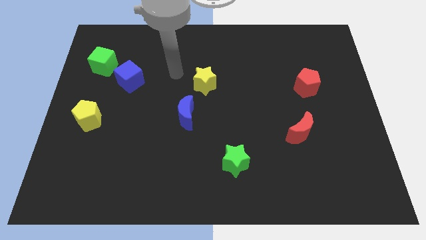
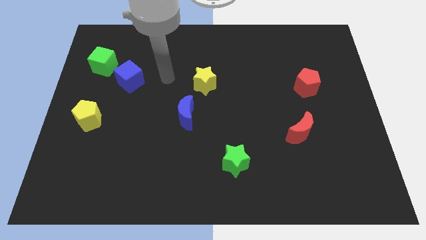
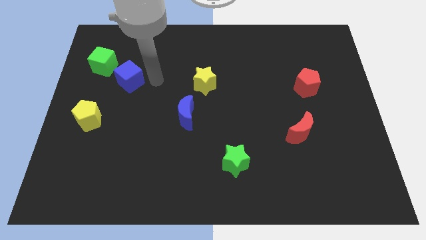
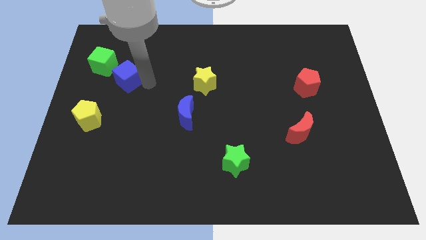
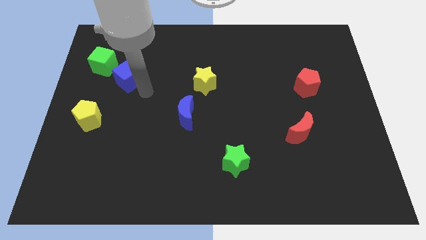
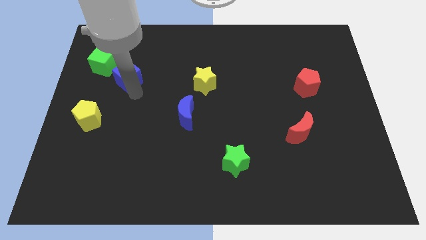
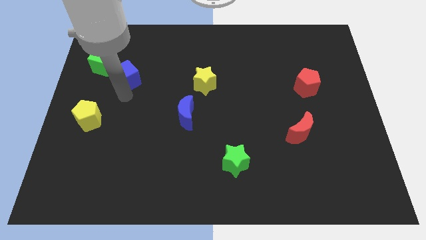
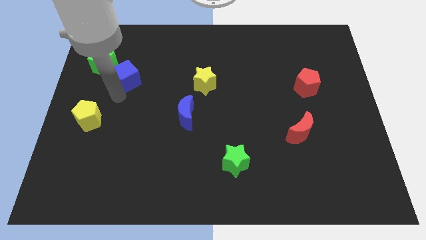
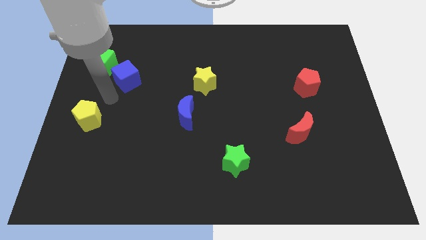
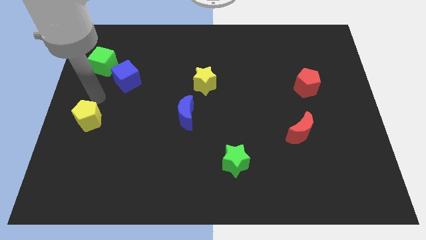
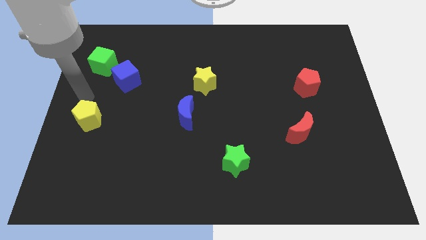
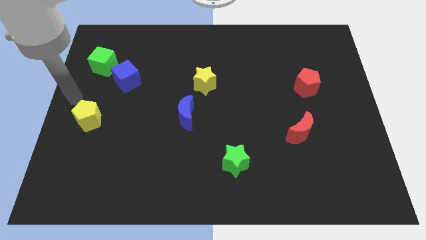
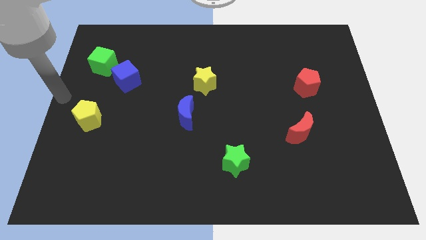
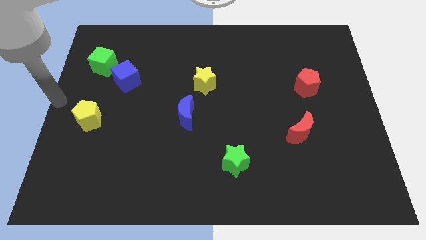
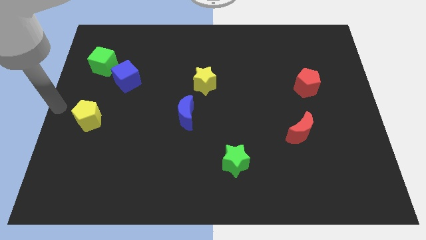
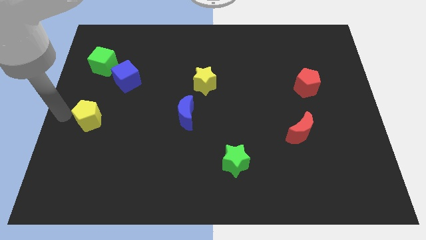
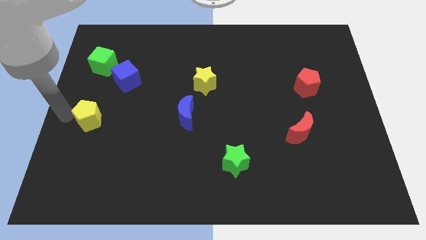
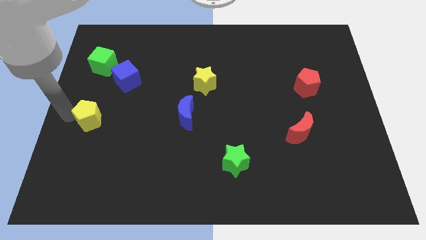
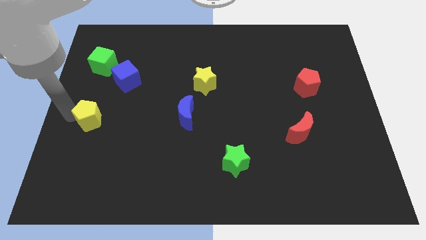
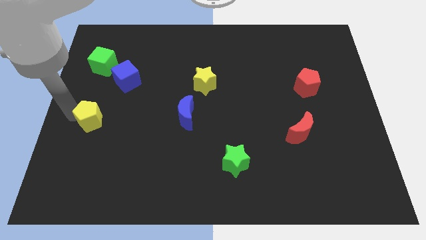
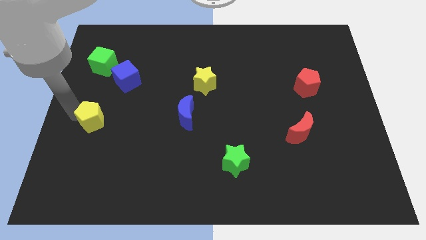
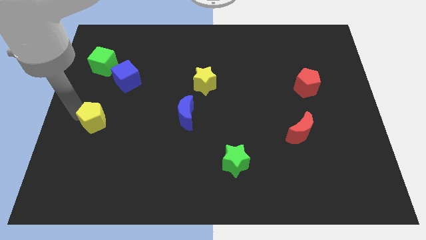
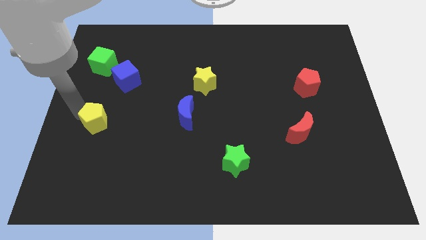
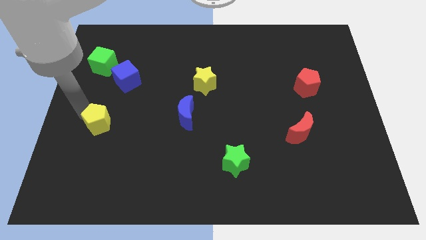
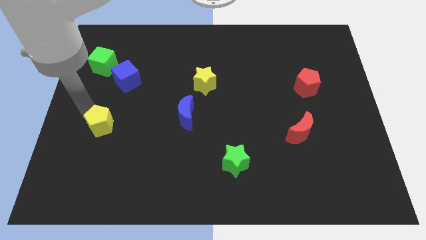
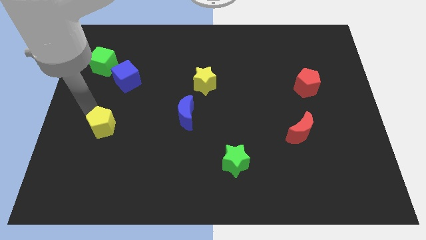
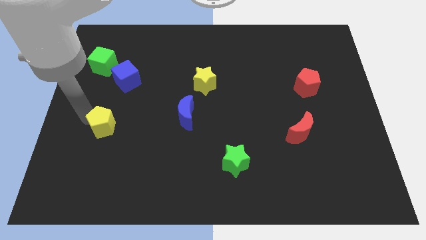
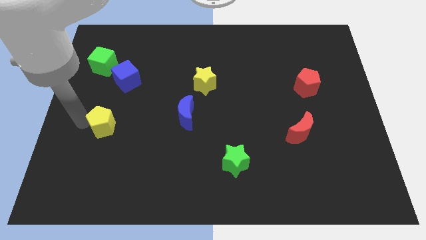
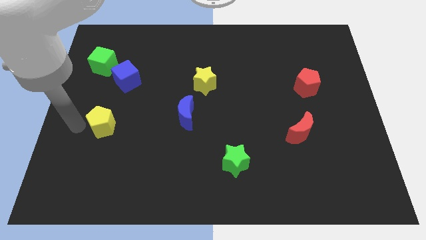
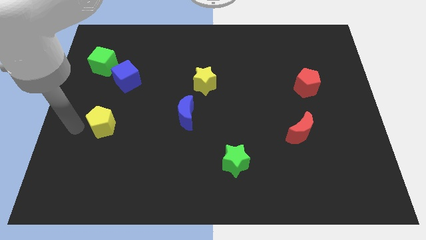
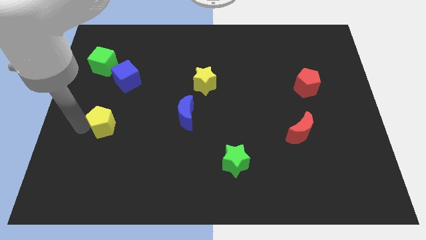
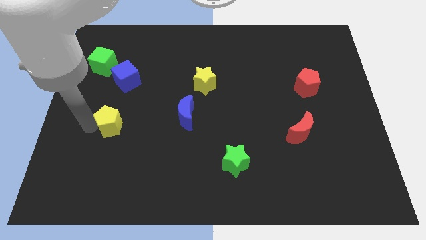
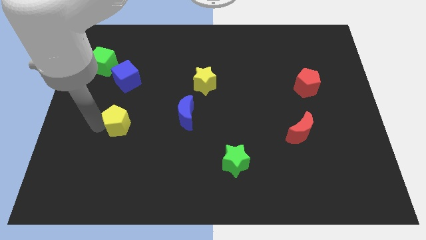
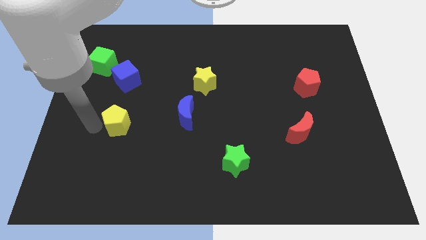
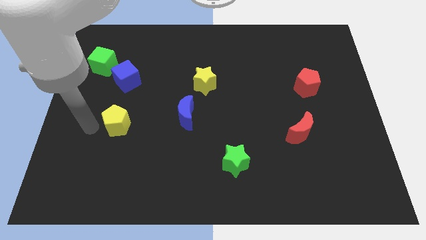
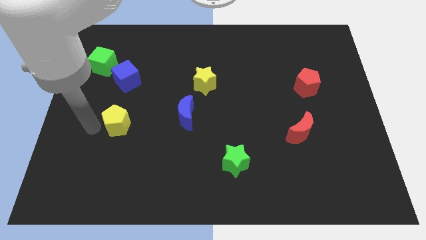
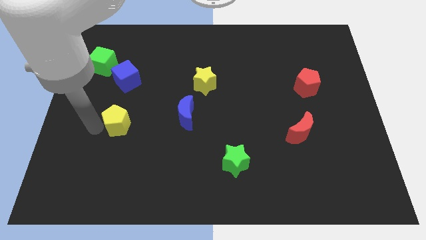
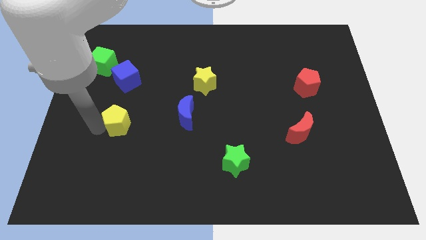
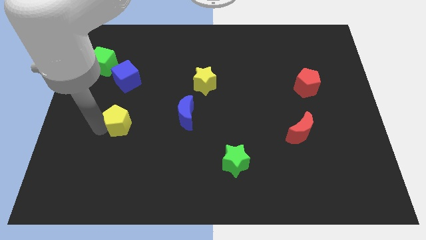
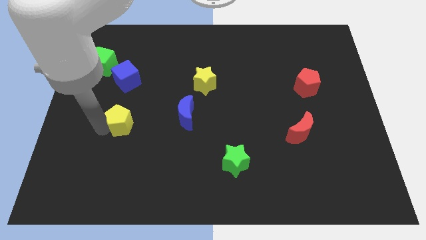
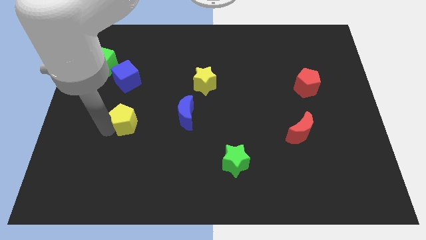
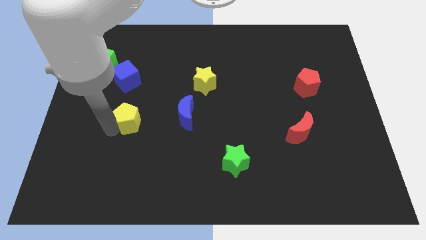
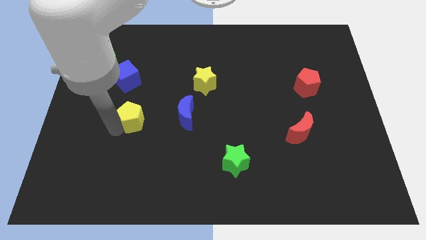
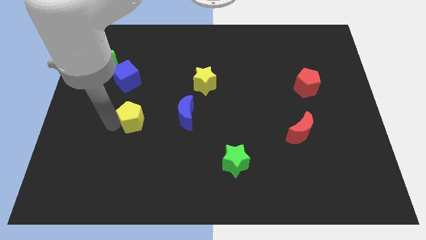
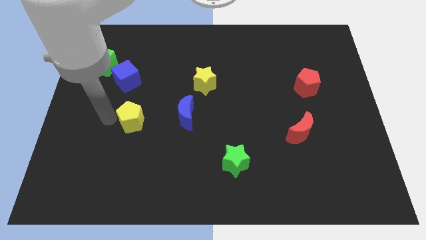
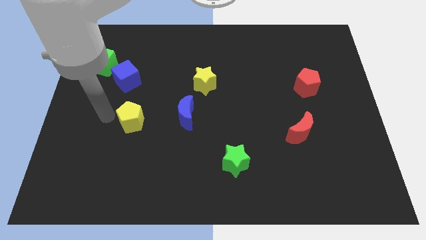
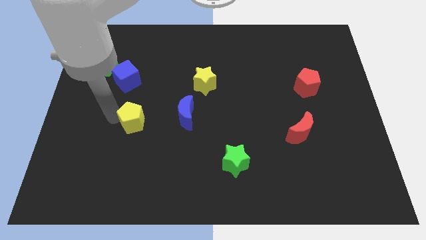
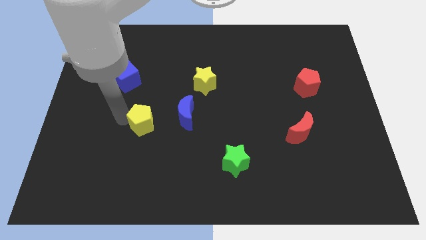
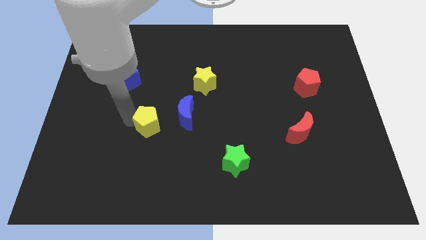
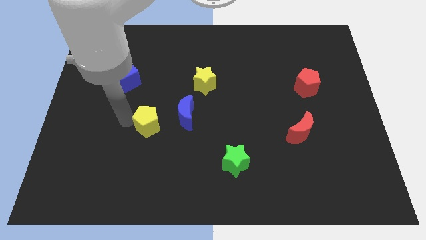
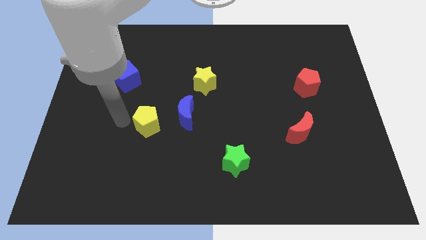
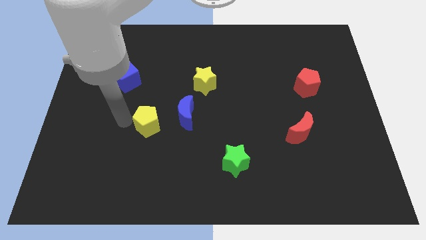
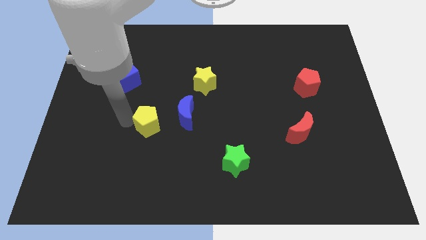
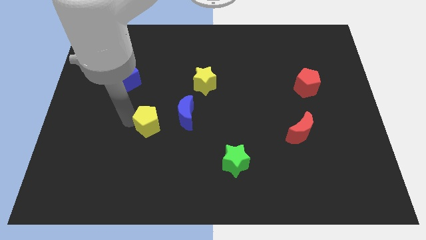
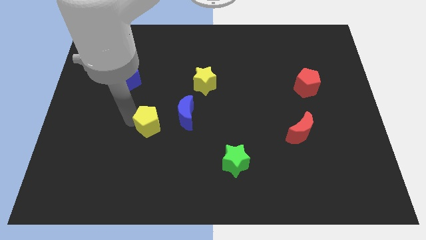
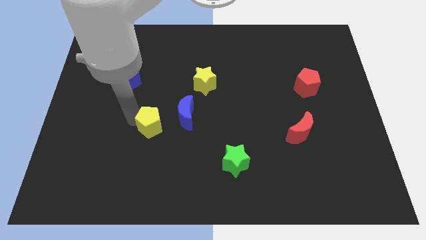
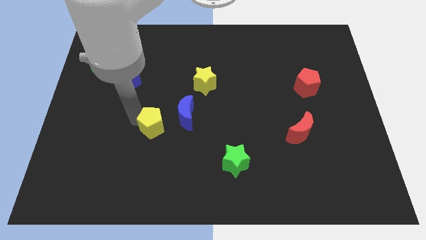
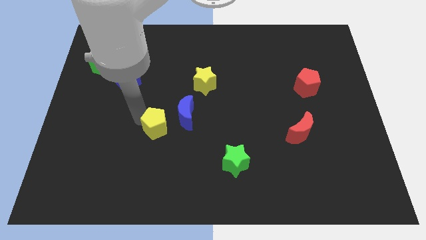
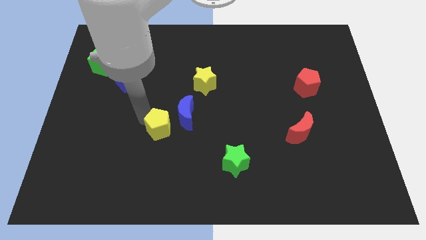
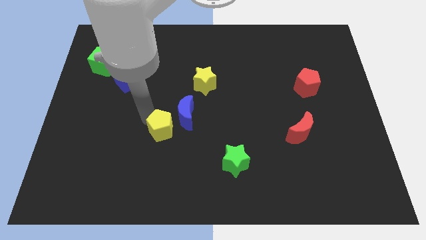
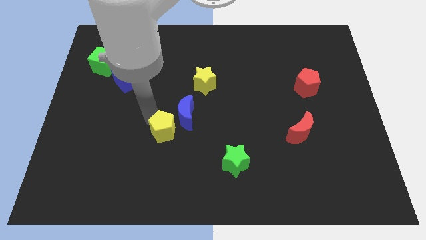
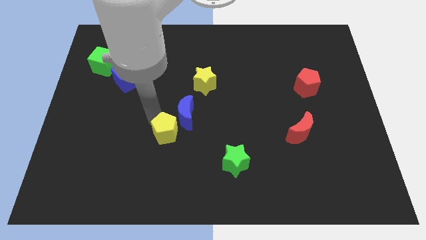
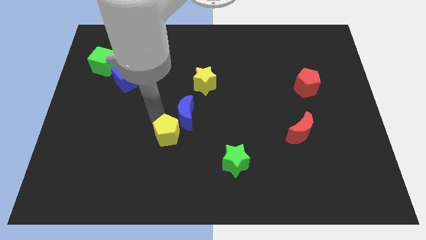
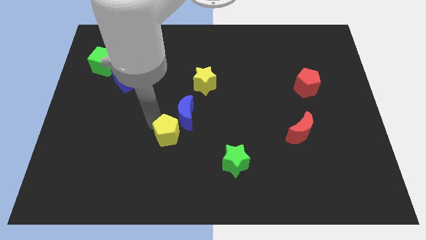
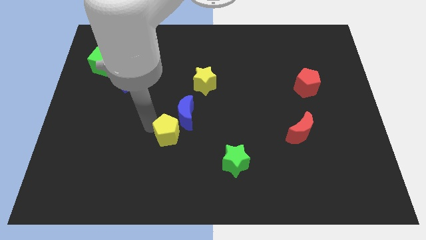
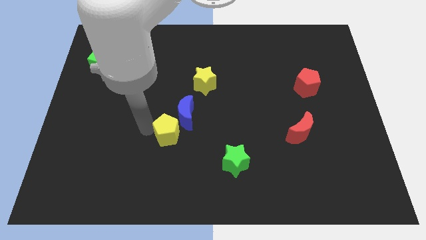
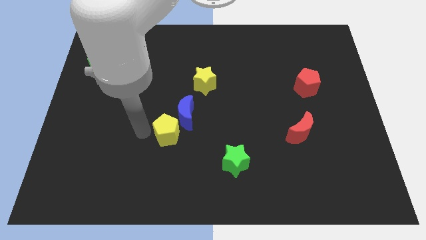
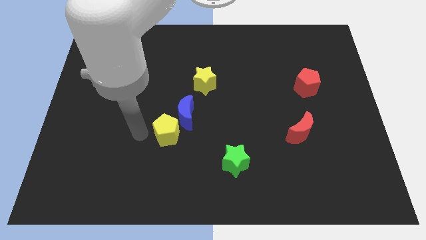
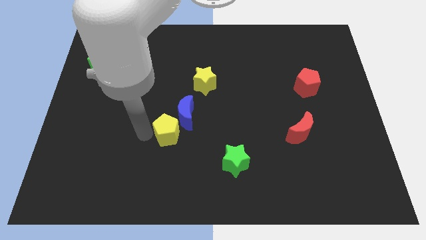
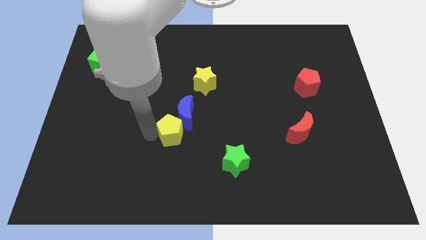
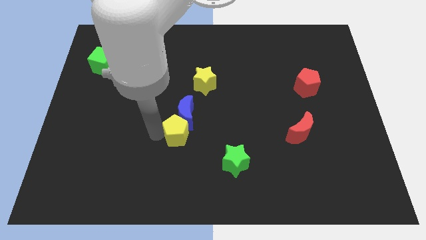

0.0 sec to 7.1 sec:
move the yellow pentagon right

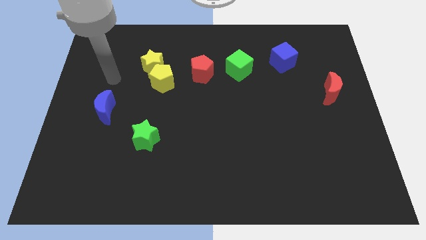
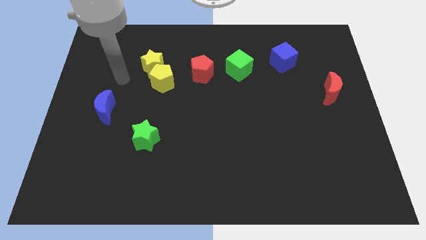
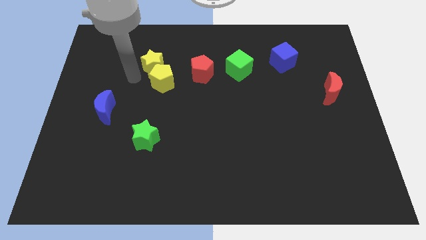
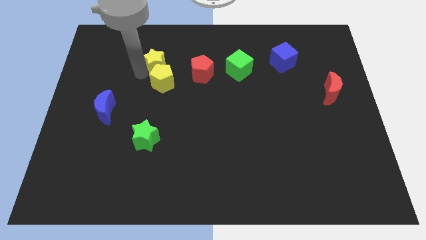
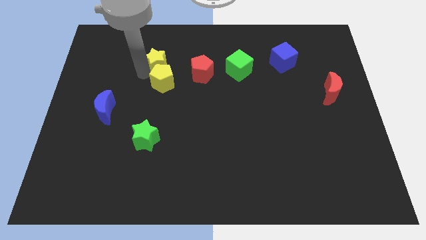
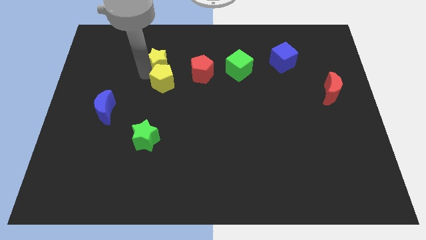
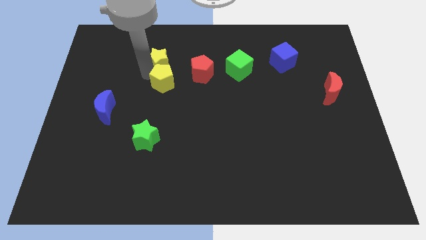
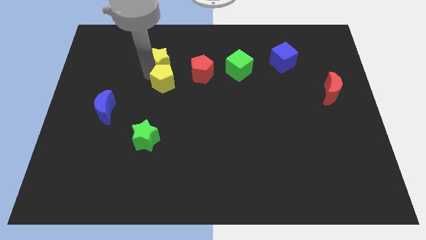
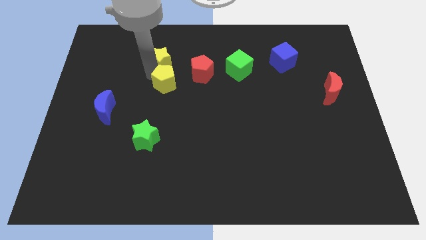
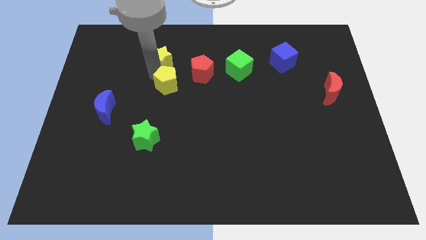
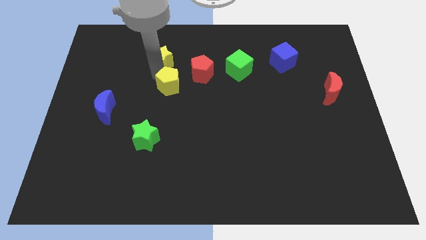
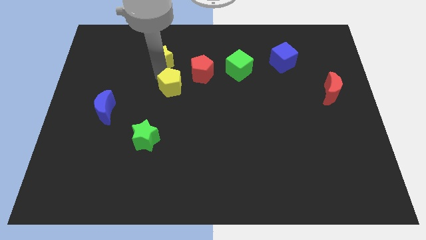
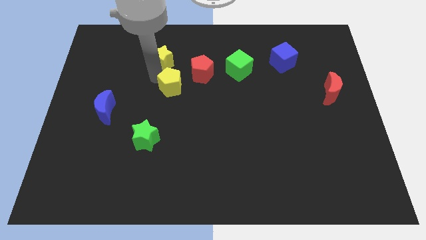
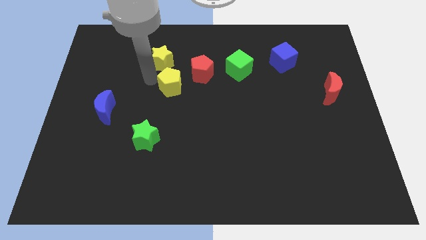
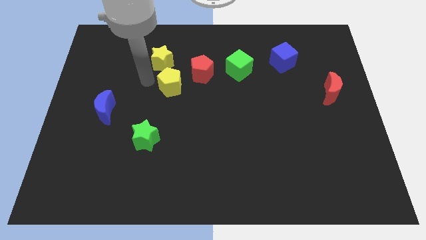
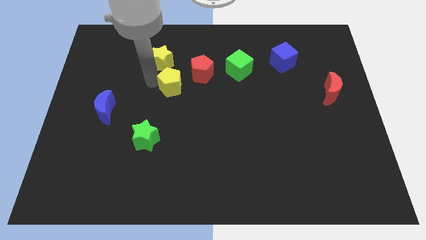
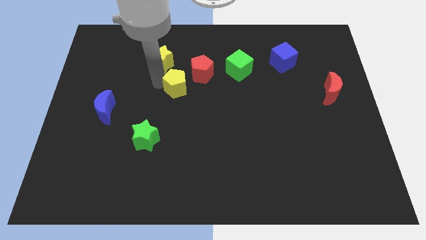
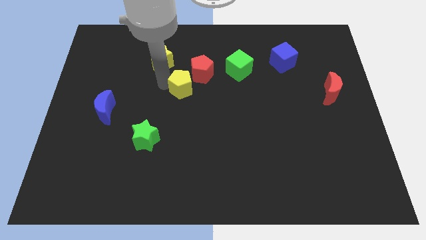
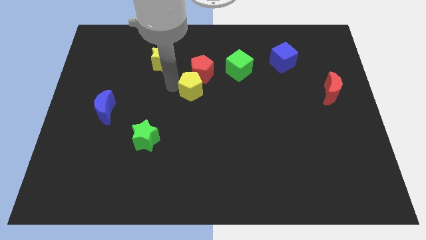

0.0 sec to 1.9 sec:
move the yellow pentagon to the right a bit
